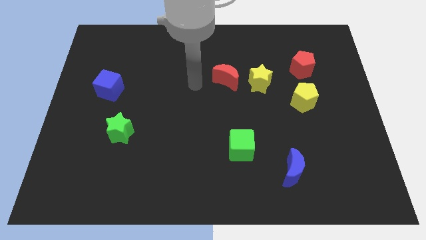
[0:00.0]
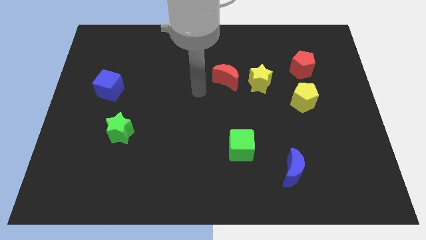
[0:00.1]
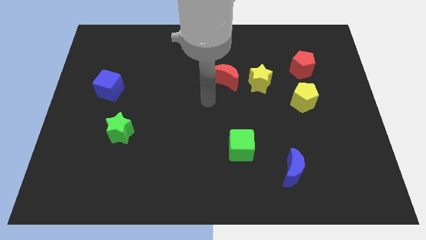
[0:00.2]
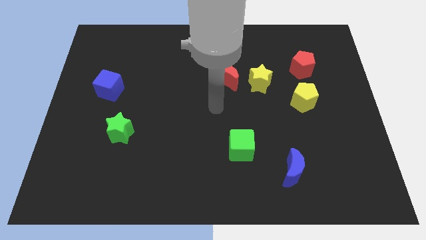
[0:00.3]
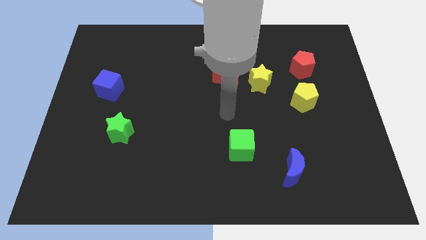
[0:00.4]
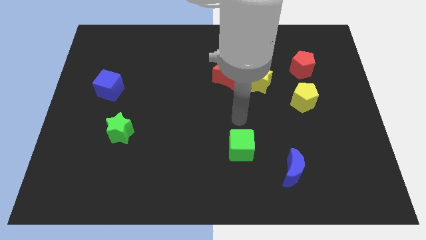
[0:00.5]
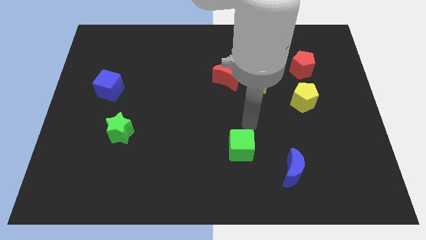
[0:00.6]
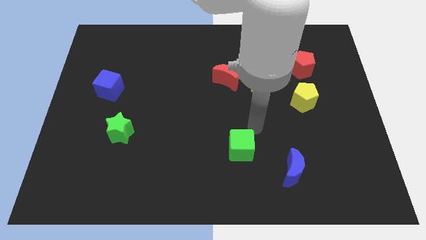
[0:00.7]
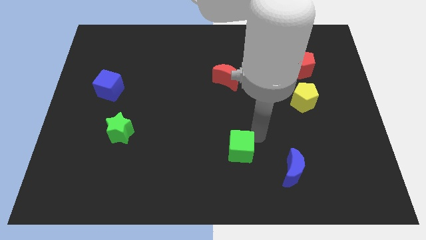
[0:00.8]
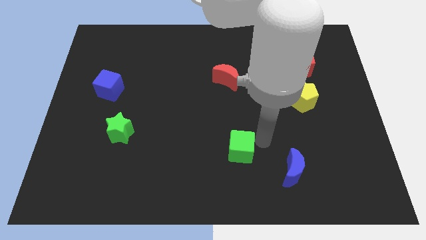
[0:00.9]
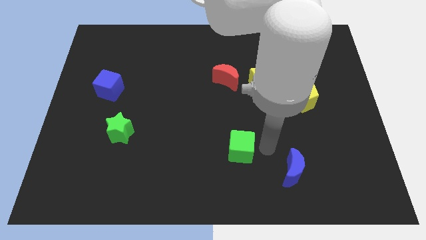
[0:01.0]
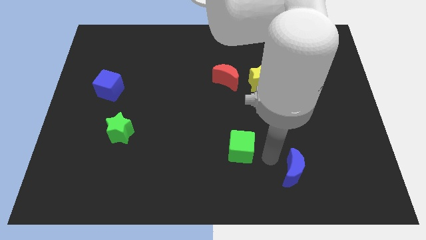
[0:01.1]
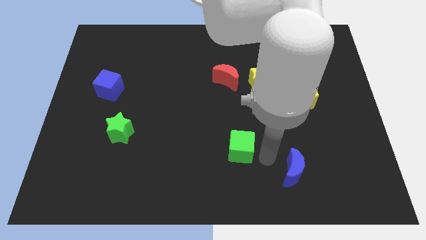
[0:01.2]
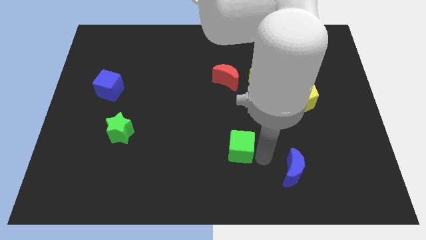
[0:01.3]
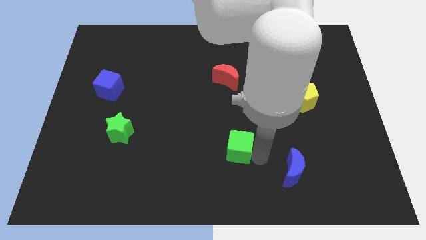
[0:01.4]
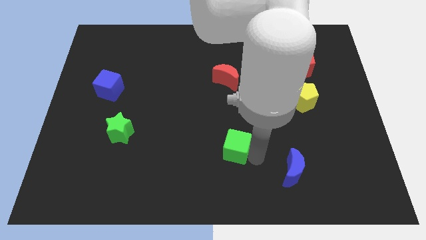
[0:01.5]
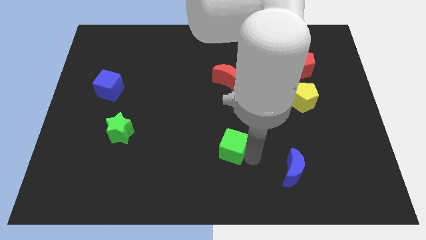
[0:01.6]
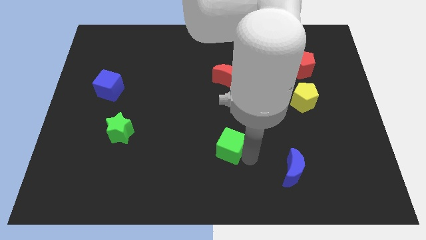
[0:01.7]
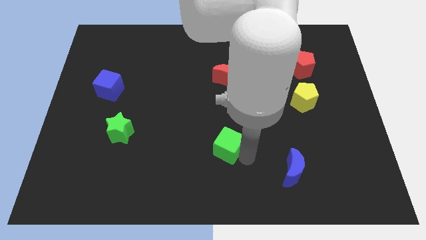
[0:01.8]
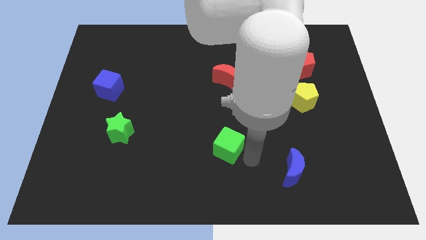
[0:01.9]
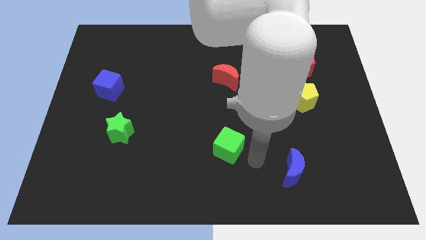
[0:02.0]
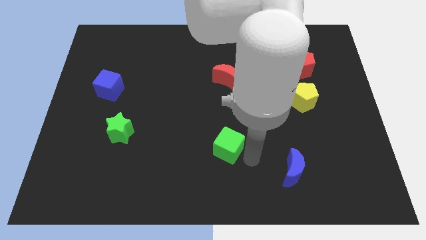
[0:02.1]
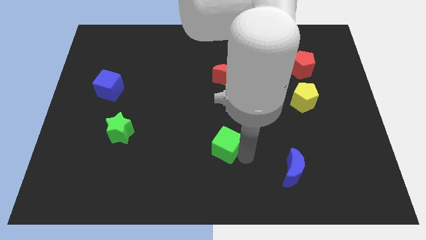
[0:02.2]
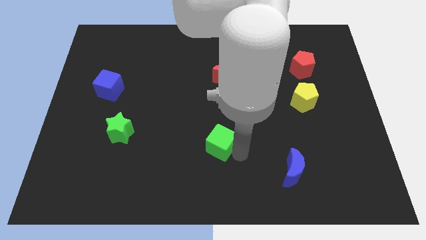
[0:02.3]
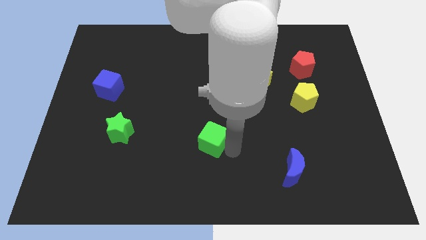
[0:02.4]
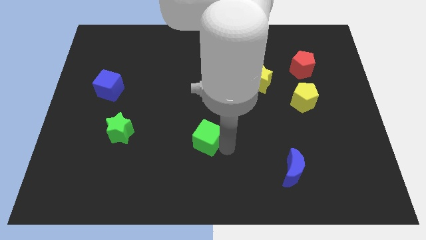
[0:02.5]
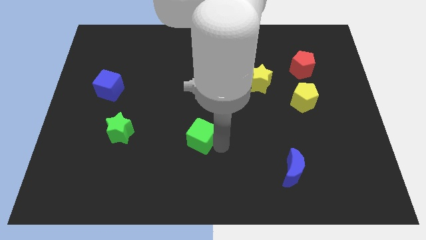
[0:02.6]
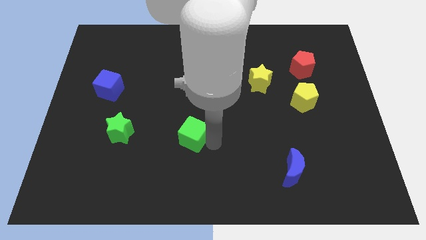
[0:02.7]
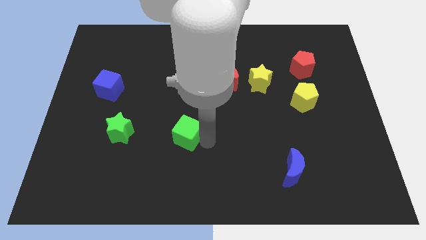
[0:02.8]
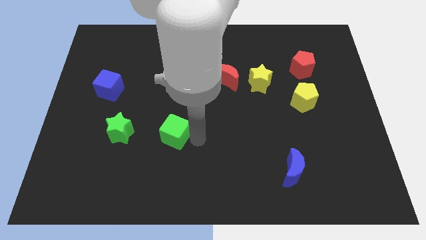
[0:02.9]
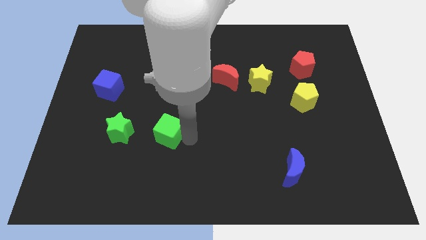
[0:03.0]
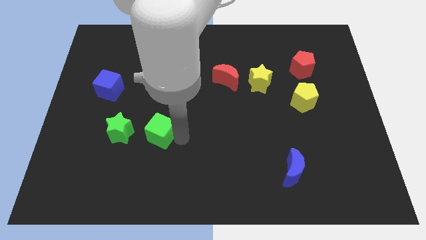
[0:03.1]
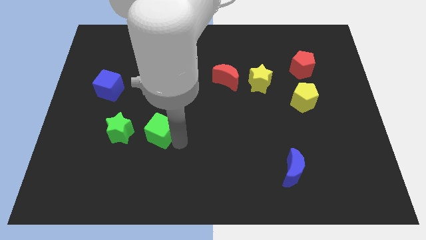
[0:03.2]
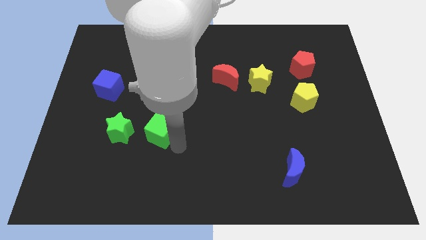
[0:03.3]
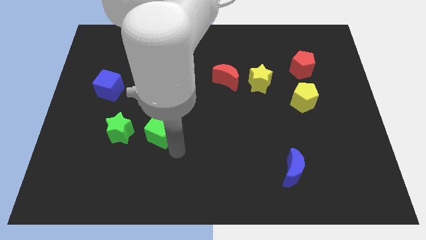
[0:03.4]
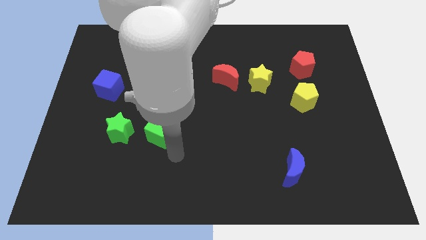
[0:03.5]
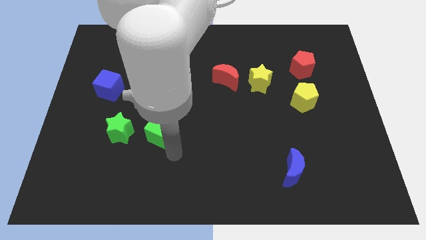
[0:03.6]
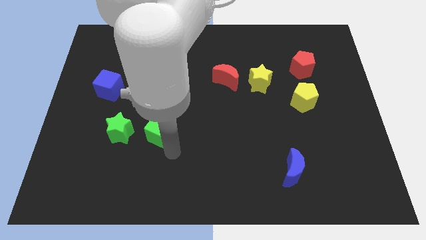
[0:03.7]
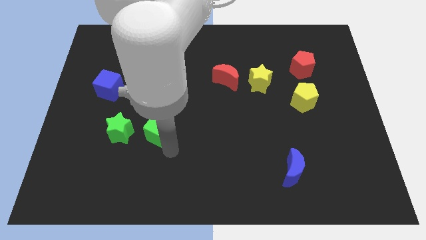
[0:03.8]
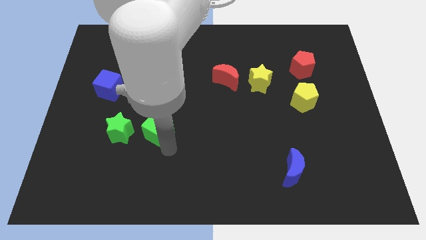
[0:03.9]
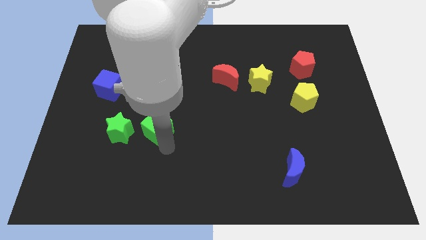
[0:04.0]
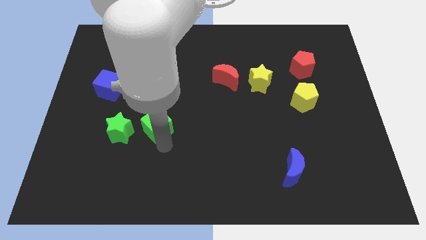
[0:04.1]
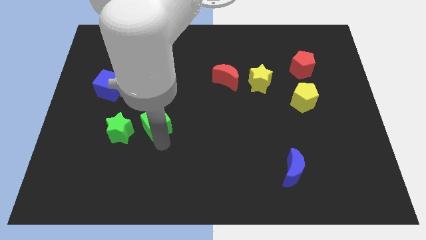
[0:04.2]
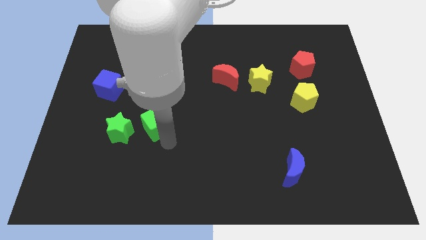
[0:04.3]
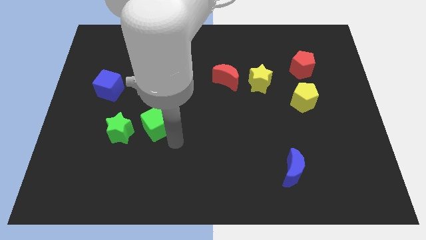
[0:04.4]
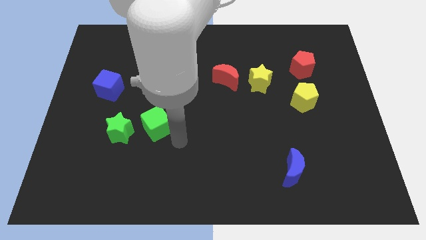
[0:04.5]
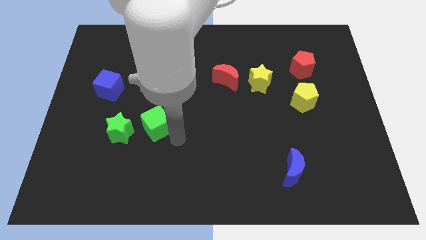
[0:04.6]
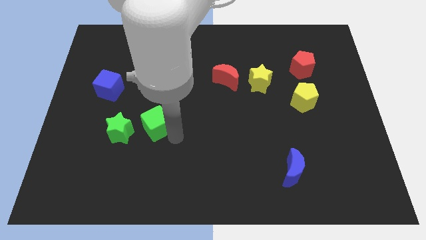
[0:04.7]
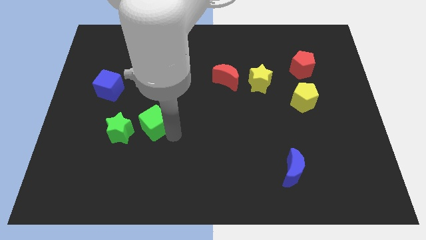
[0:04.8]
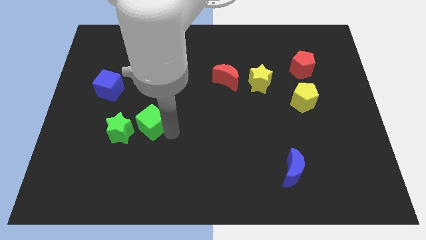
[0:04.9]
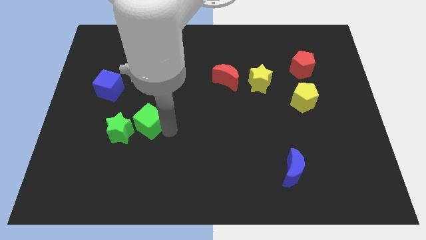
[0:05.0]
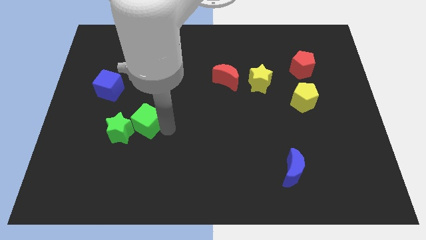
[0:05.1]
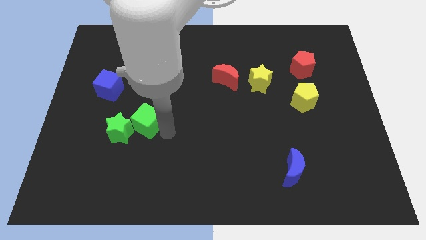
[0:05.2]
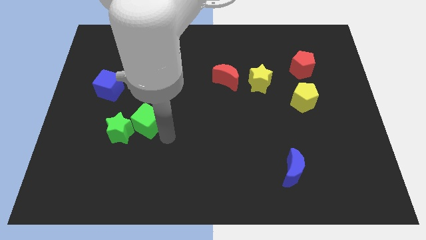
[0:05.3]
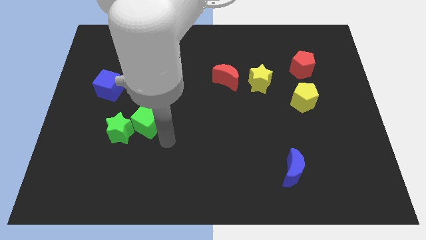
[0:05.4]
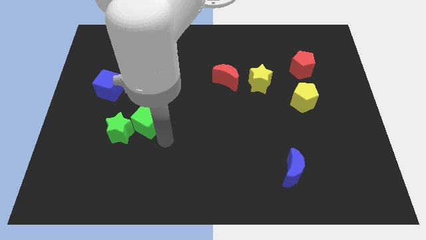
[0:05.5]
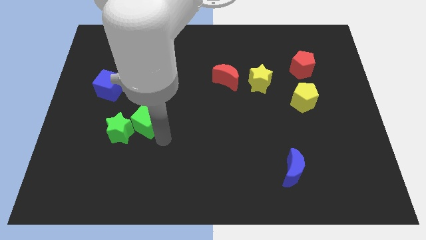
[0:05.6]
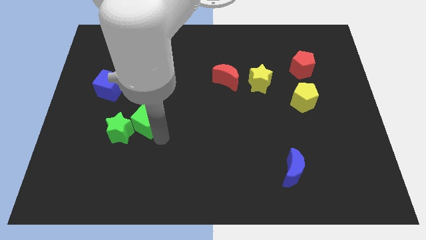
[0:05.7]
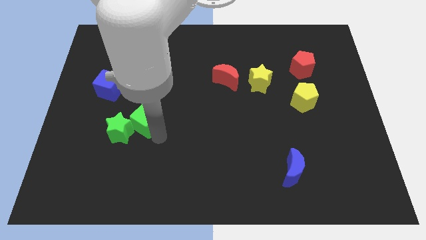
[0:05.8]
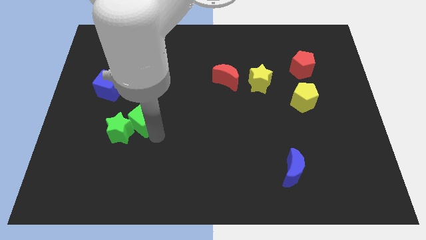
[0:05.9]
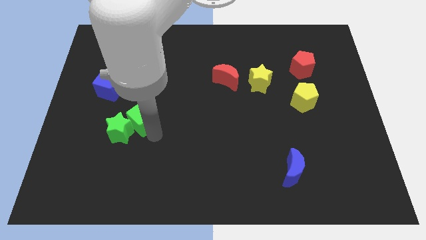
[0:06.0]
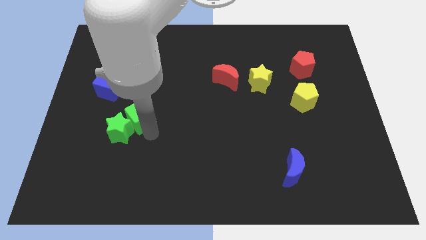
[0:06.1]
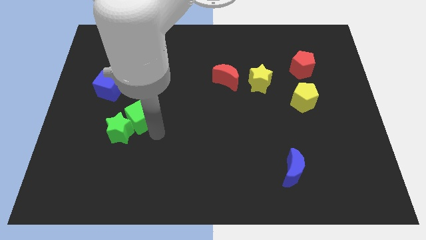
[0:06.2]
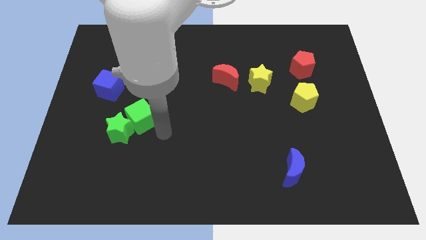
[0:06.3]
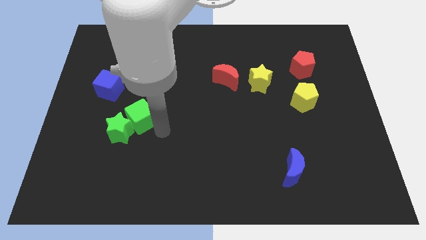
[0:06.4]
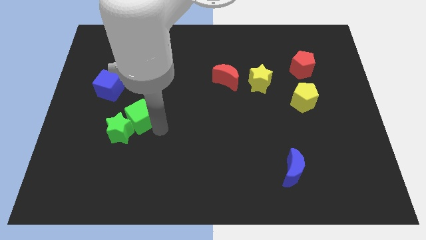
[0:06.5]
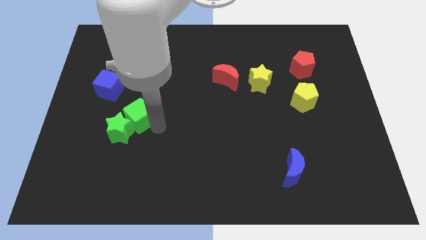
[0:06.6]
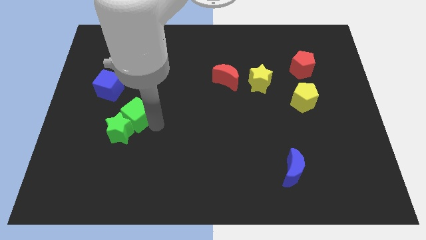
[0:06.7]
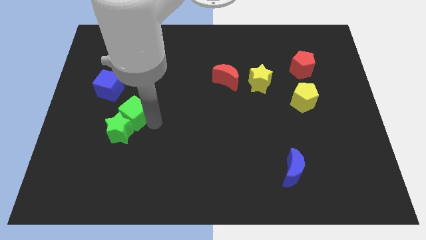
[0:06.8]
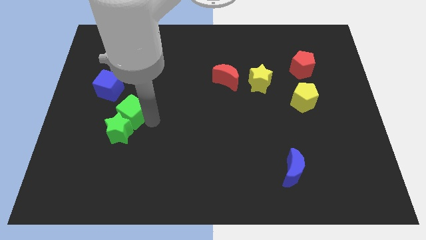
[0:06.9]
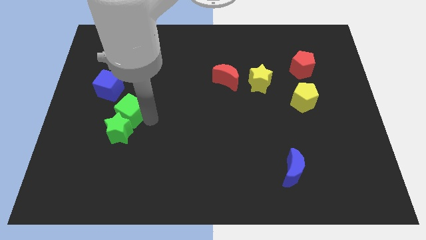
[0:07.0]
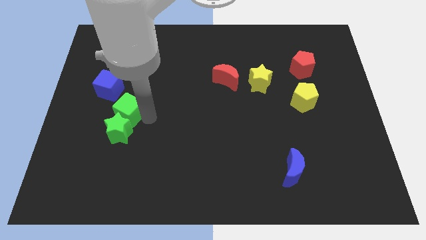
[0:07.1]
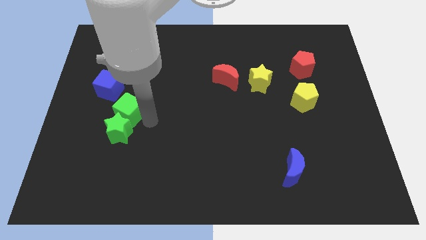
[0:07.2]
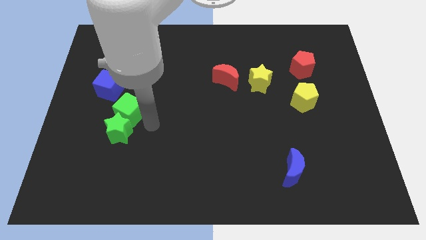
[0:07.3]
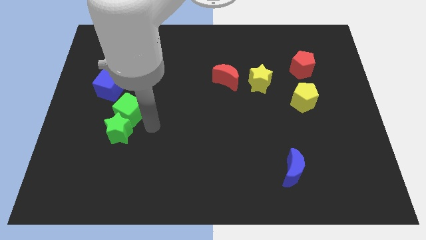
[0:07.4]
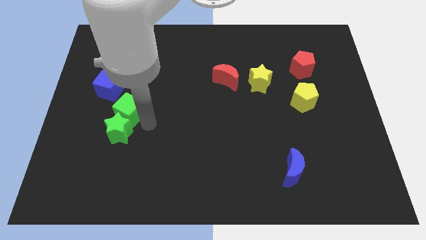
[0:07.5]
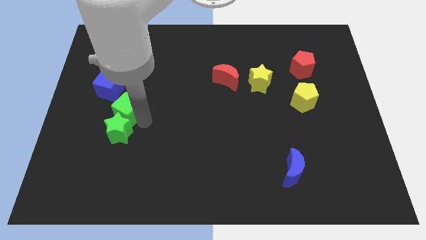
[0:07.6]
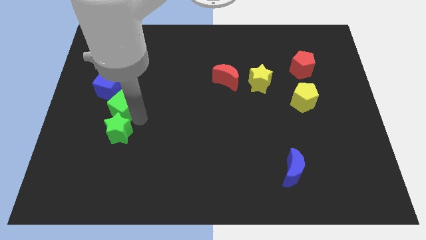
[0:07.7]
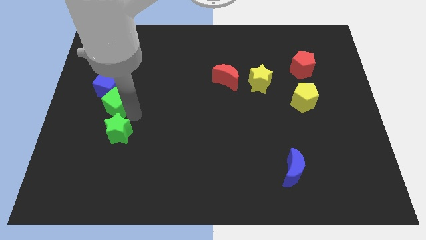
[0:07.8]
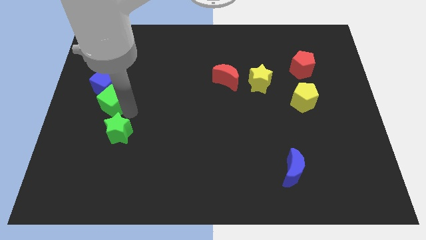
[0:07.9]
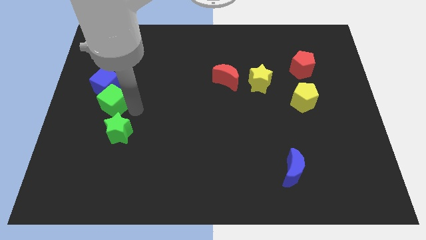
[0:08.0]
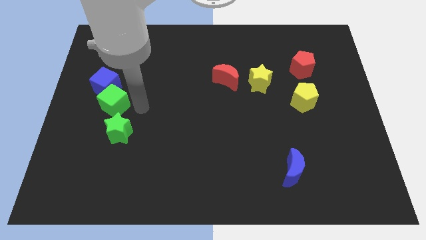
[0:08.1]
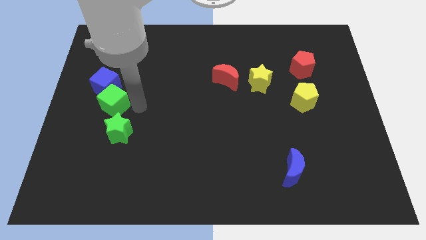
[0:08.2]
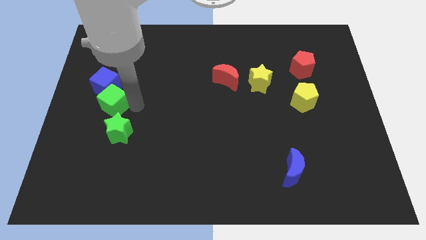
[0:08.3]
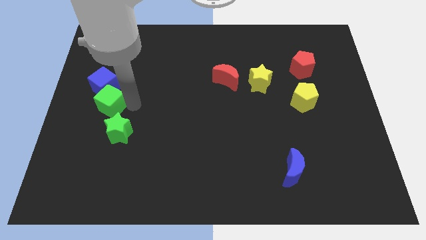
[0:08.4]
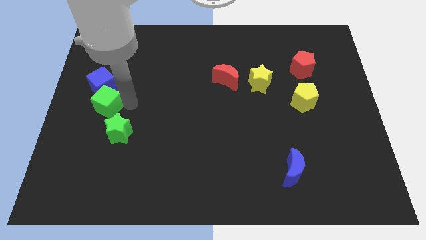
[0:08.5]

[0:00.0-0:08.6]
put the green cube to the left side
